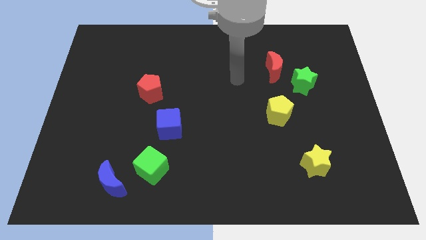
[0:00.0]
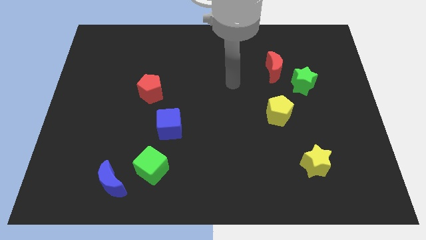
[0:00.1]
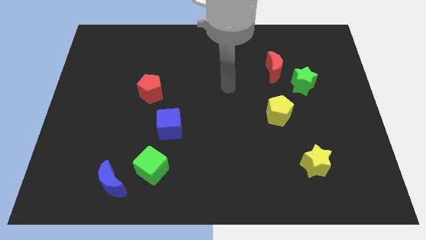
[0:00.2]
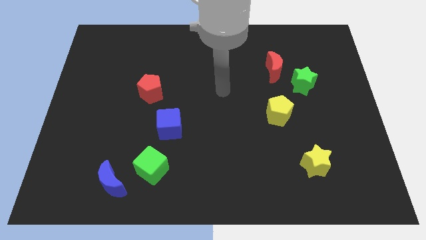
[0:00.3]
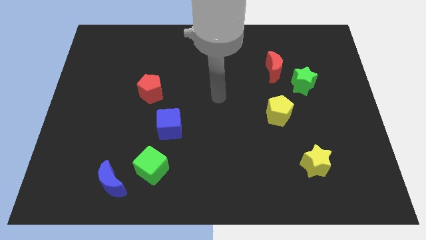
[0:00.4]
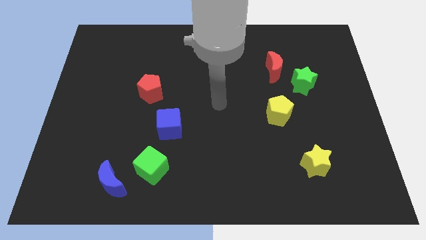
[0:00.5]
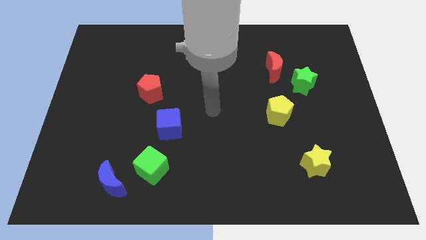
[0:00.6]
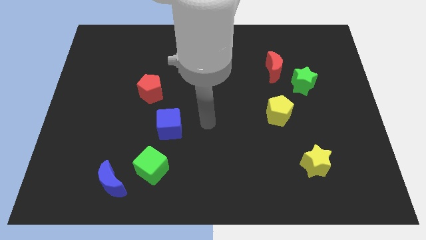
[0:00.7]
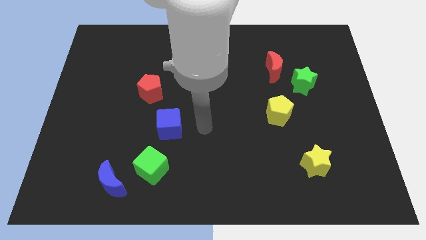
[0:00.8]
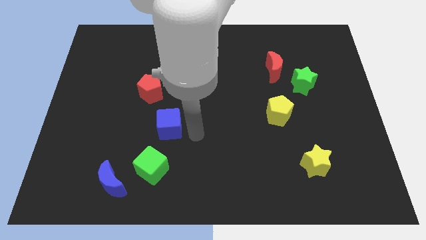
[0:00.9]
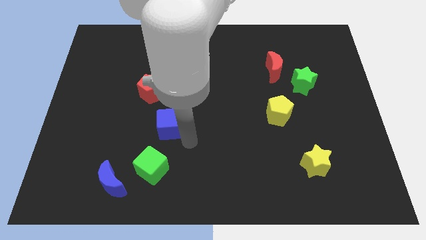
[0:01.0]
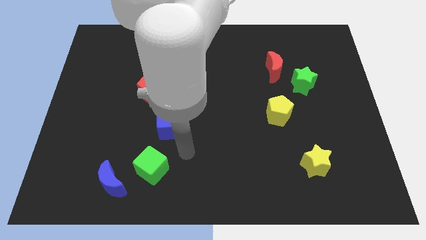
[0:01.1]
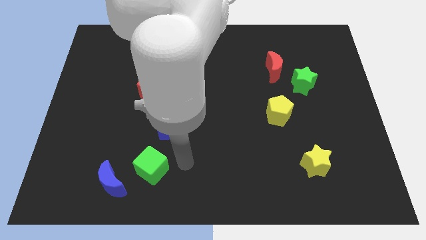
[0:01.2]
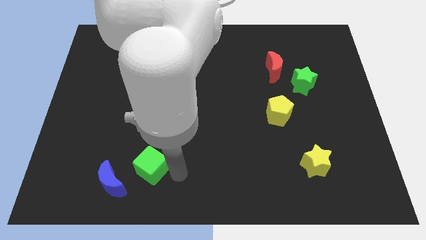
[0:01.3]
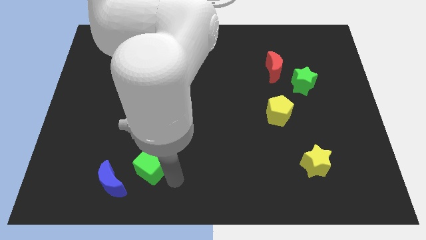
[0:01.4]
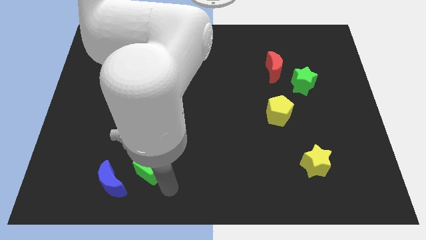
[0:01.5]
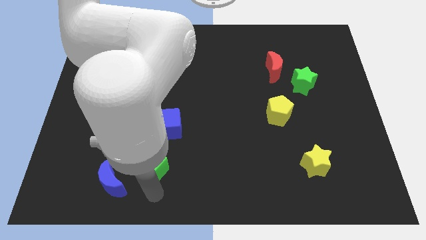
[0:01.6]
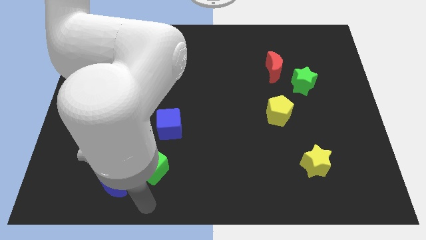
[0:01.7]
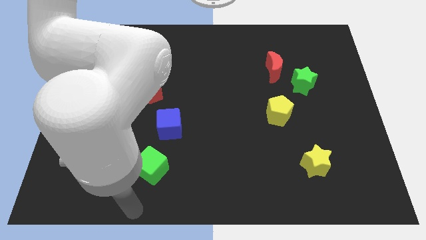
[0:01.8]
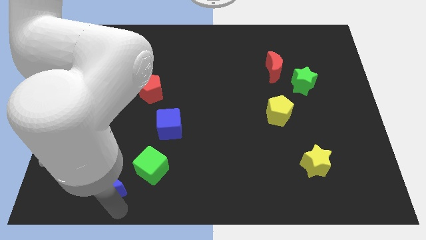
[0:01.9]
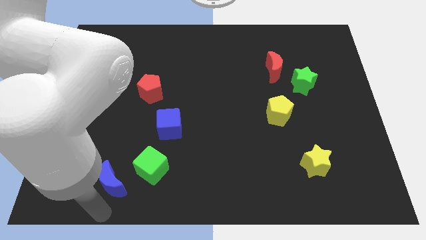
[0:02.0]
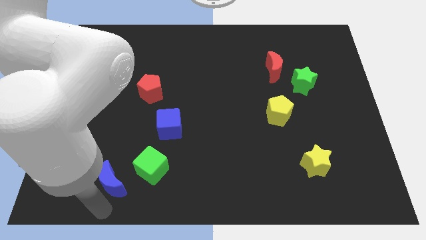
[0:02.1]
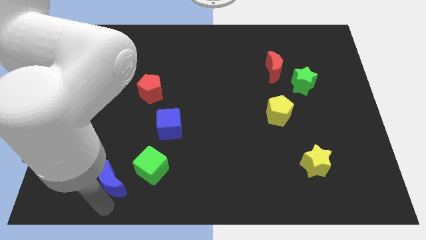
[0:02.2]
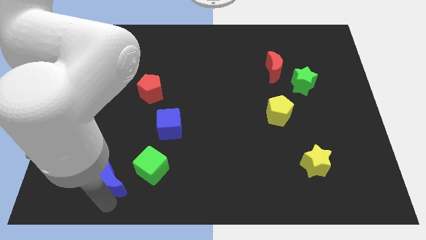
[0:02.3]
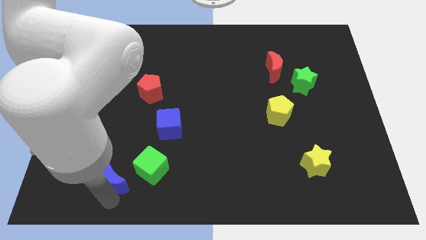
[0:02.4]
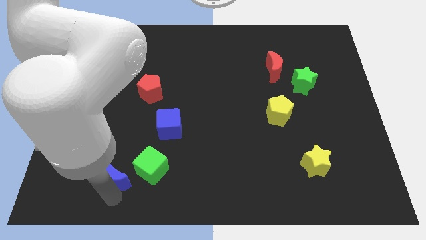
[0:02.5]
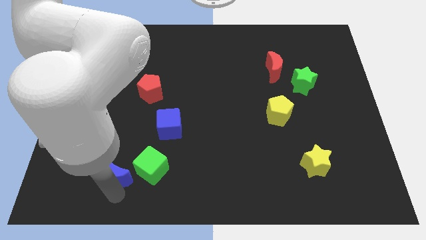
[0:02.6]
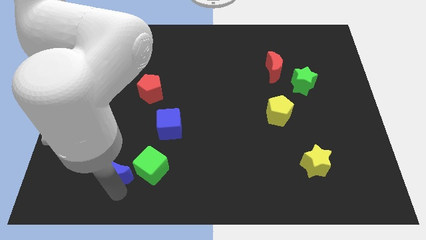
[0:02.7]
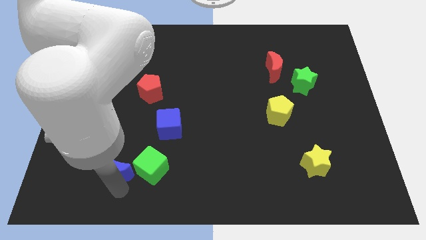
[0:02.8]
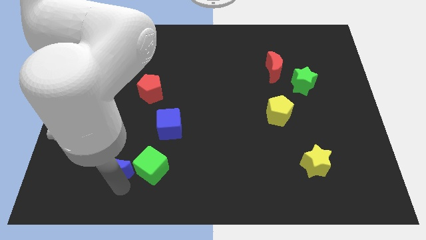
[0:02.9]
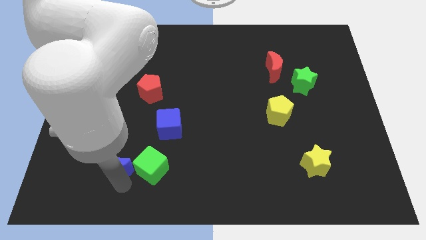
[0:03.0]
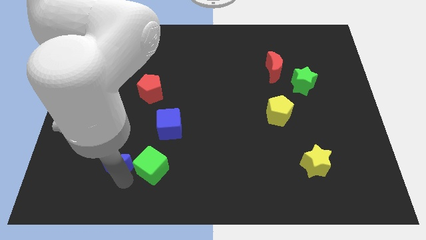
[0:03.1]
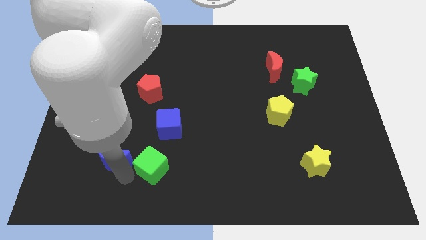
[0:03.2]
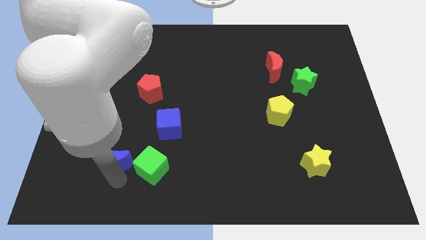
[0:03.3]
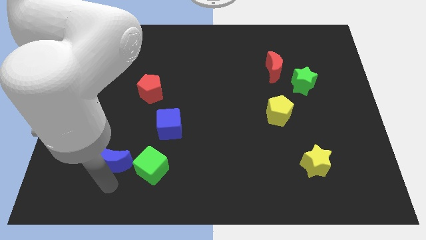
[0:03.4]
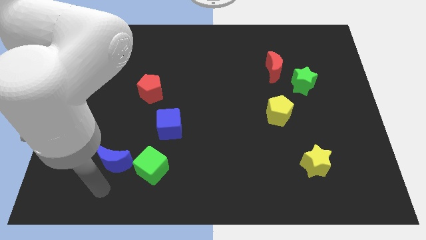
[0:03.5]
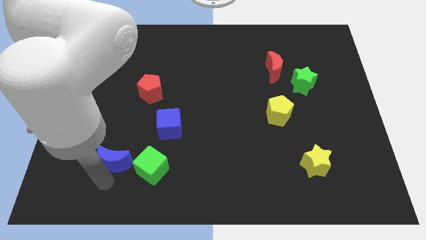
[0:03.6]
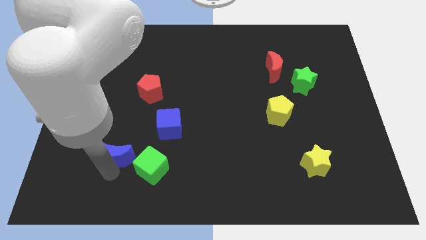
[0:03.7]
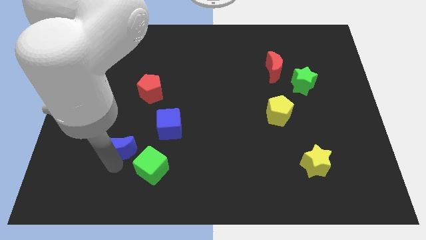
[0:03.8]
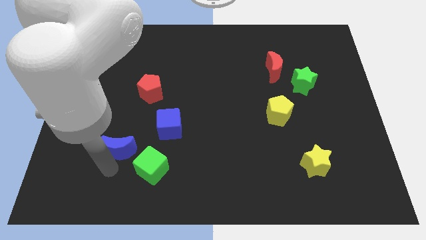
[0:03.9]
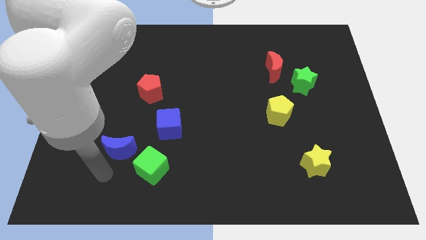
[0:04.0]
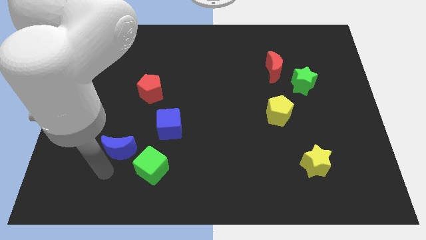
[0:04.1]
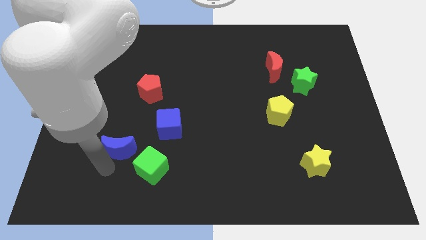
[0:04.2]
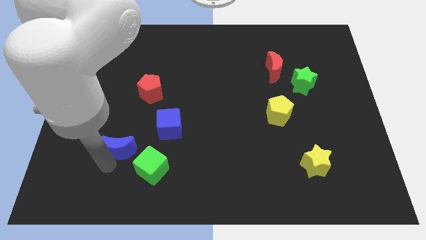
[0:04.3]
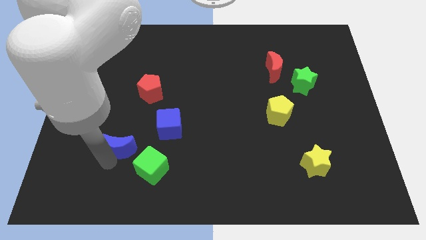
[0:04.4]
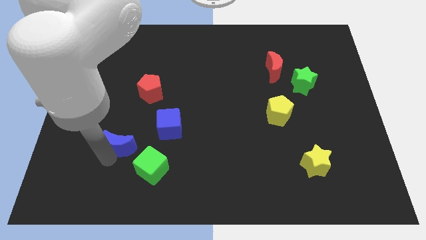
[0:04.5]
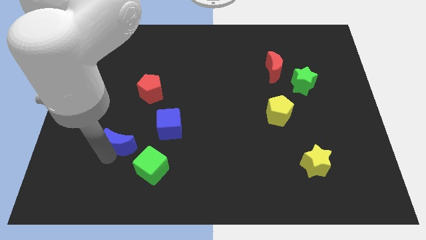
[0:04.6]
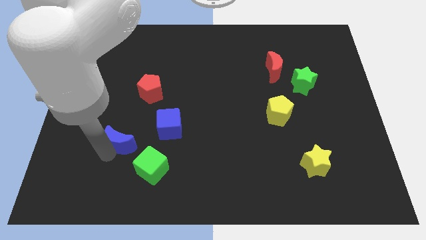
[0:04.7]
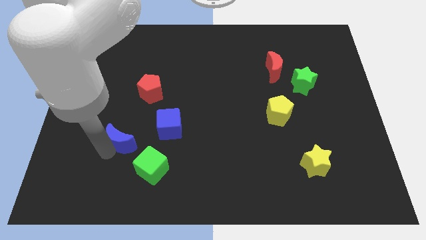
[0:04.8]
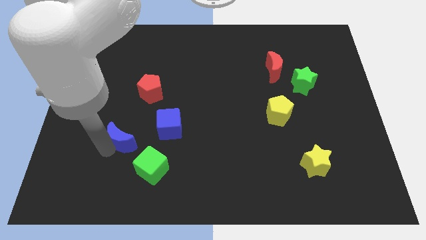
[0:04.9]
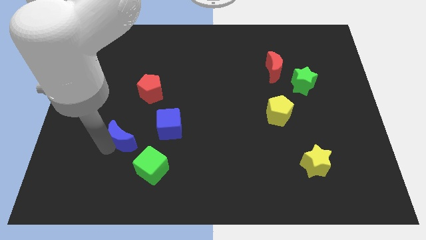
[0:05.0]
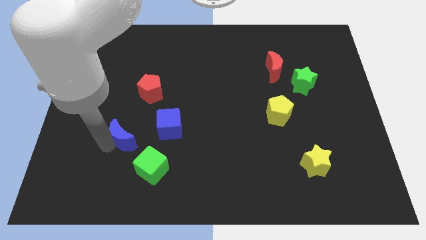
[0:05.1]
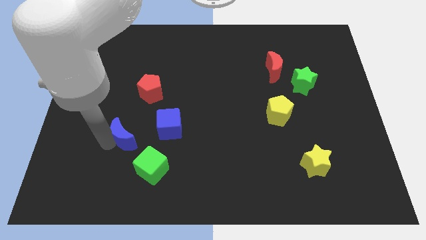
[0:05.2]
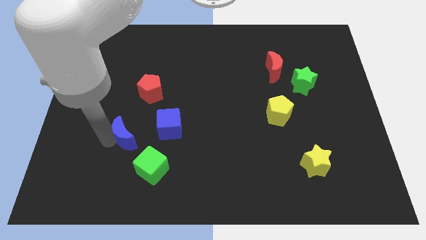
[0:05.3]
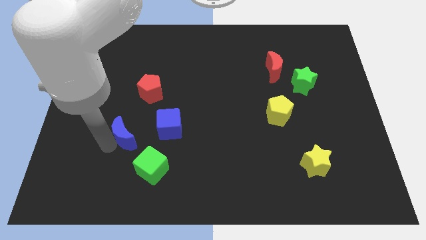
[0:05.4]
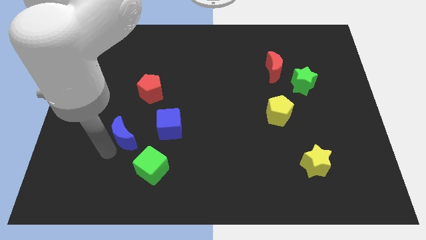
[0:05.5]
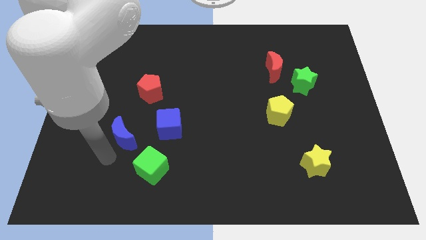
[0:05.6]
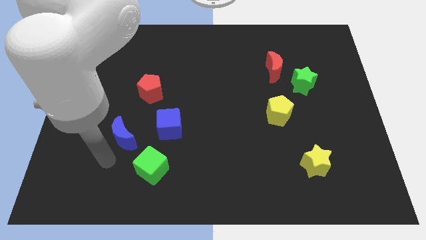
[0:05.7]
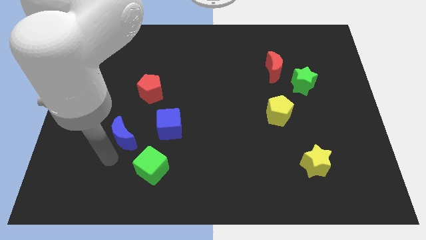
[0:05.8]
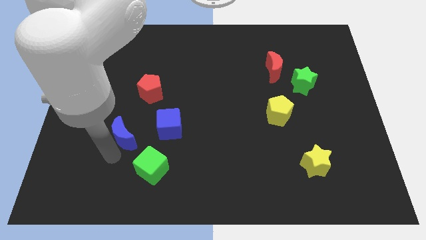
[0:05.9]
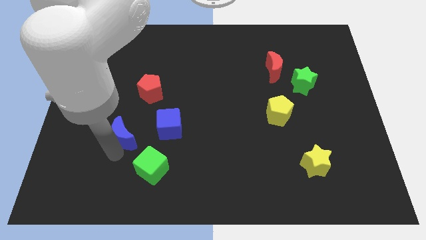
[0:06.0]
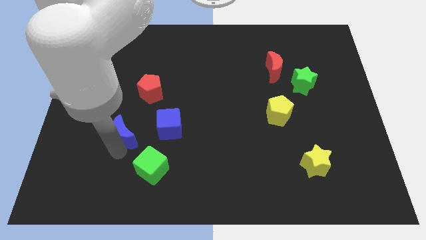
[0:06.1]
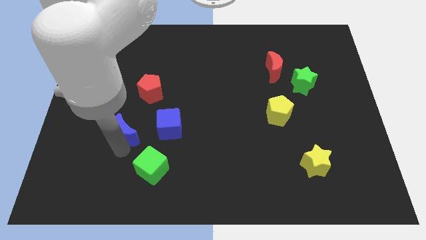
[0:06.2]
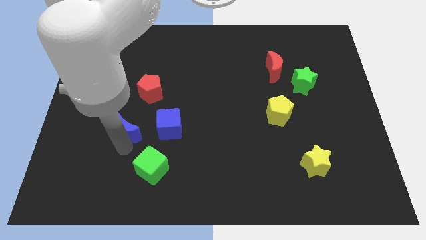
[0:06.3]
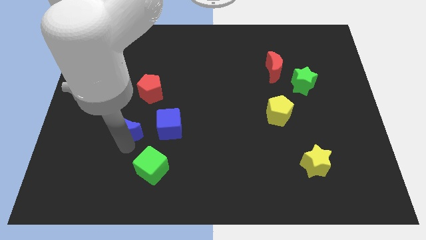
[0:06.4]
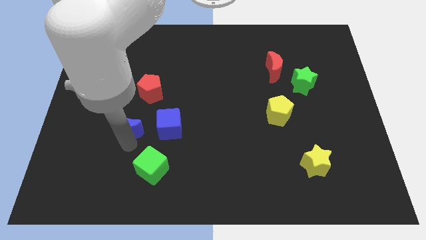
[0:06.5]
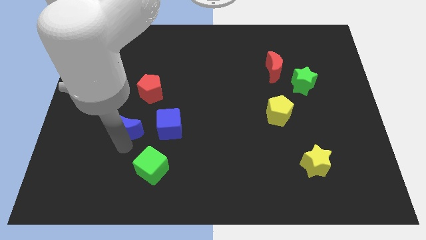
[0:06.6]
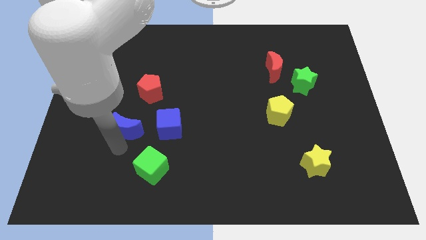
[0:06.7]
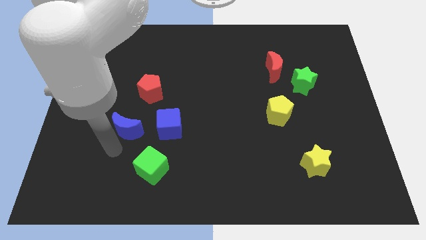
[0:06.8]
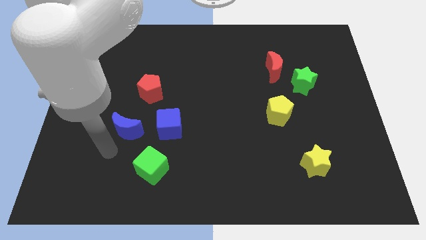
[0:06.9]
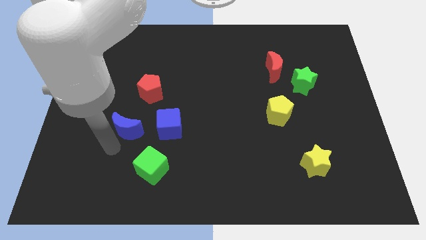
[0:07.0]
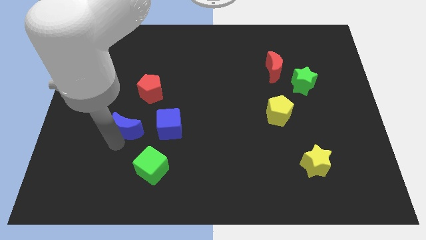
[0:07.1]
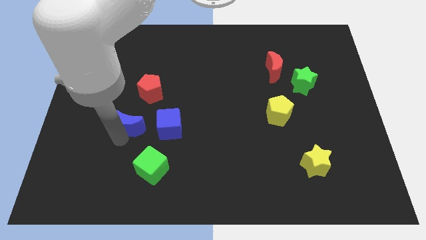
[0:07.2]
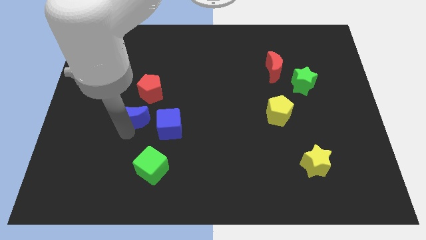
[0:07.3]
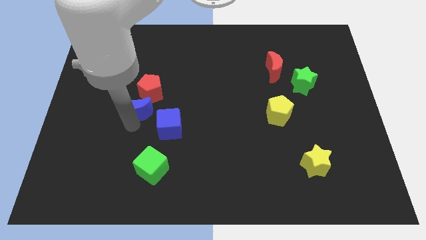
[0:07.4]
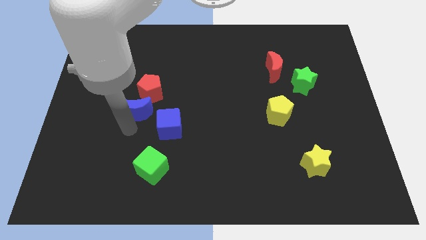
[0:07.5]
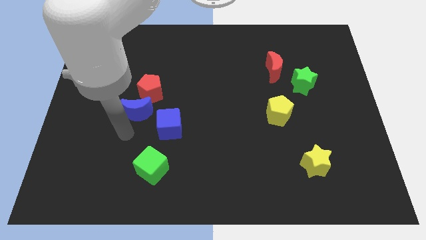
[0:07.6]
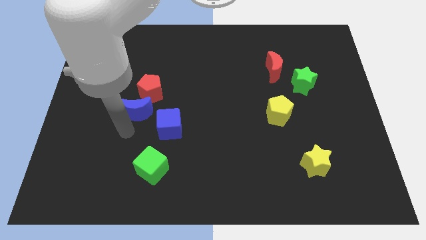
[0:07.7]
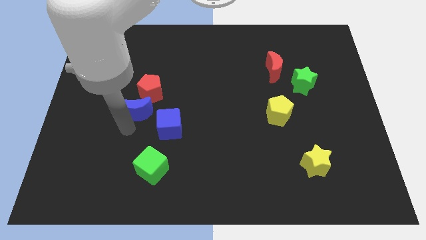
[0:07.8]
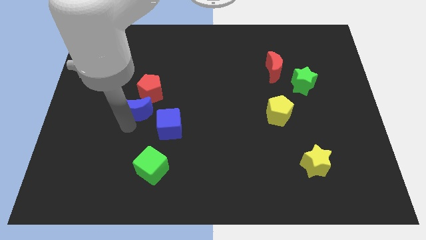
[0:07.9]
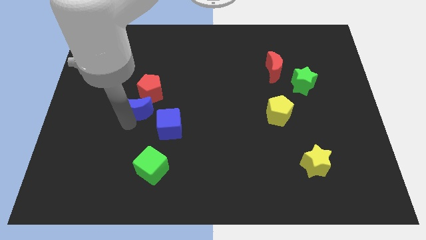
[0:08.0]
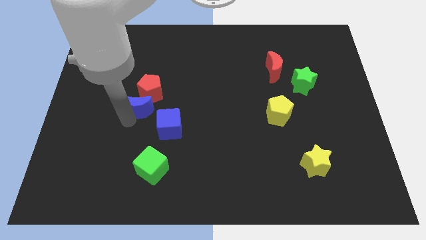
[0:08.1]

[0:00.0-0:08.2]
put the blue moon to the red pentagon
